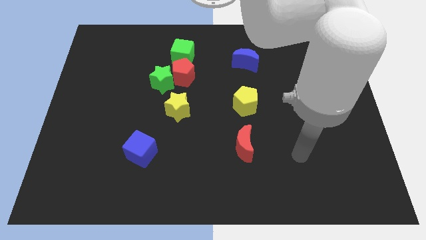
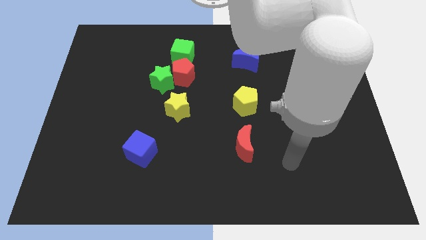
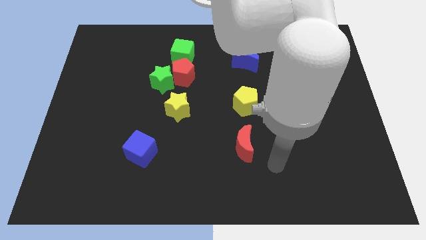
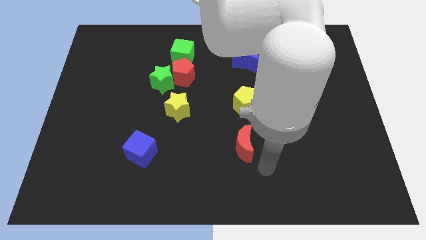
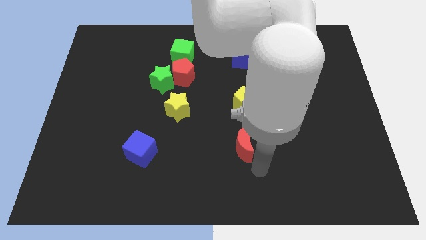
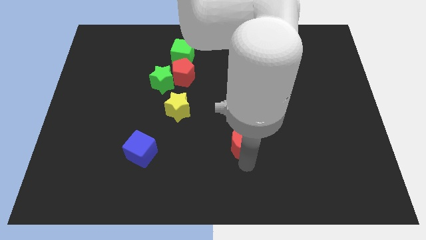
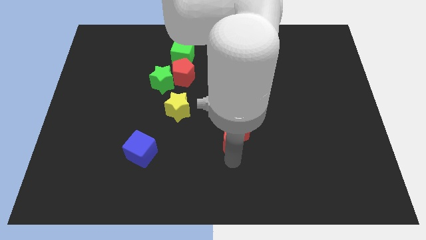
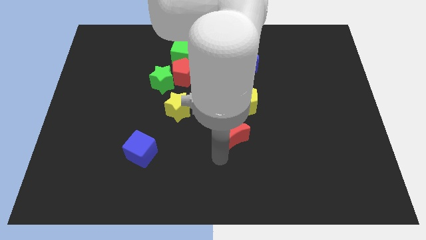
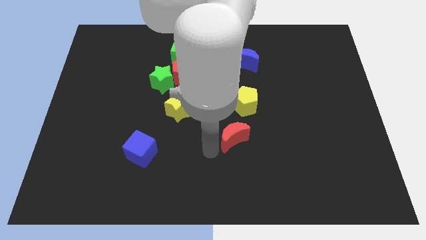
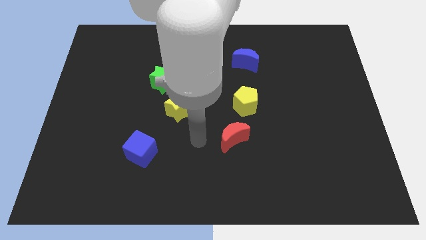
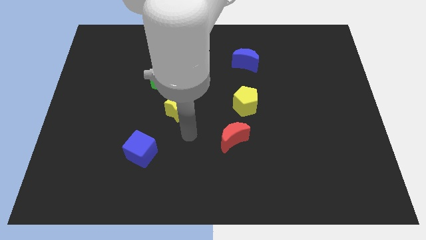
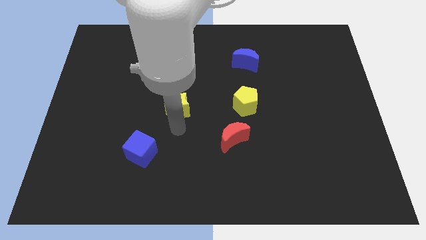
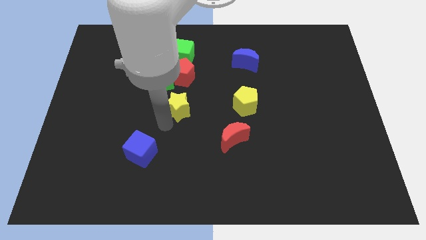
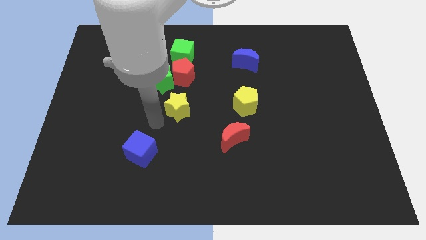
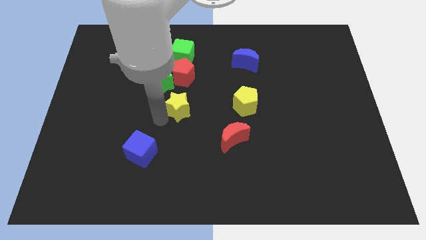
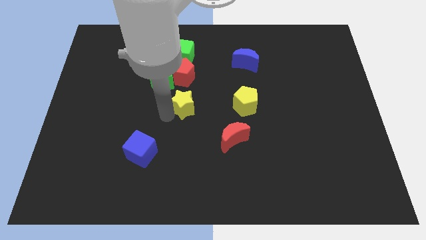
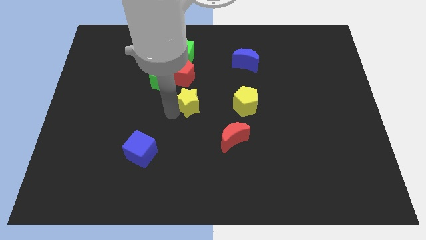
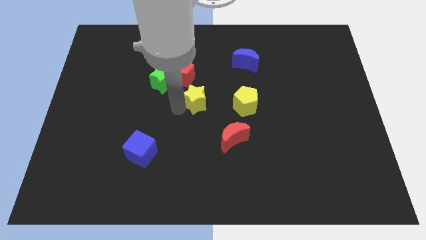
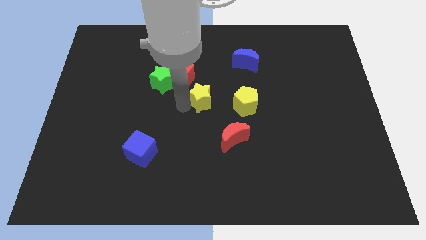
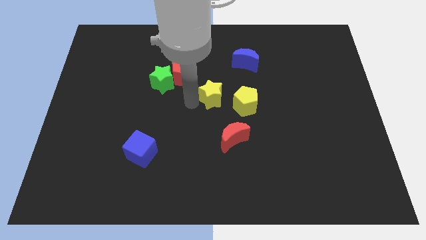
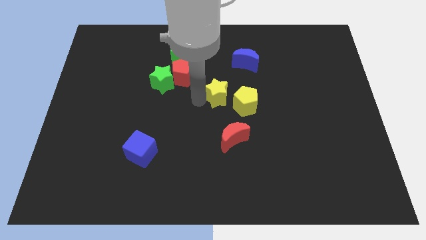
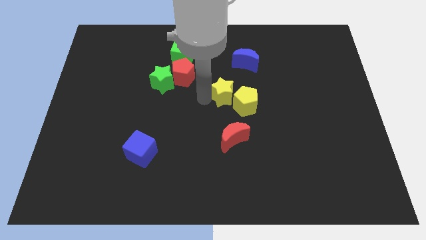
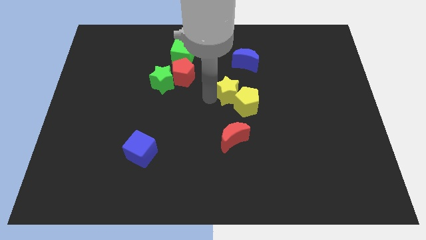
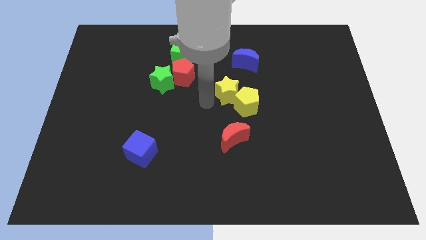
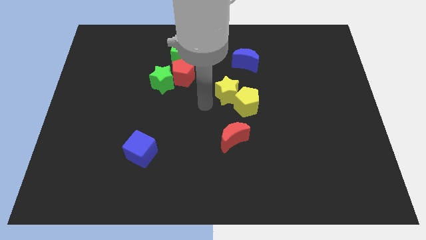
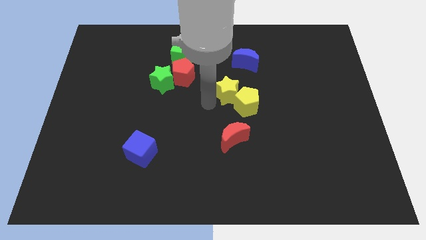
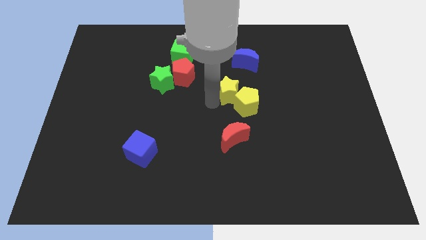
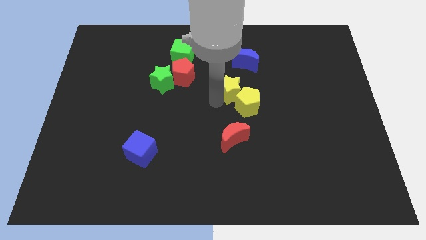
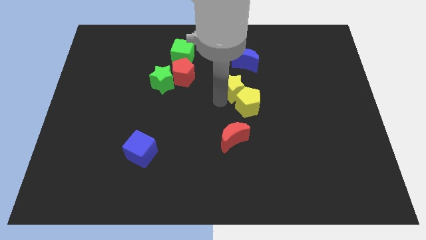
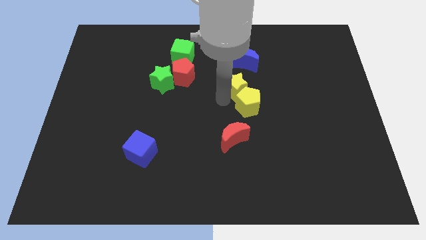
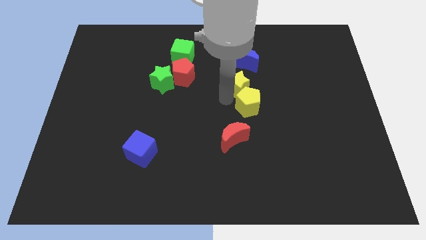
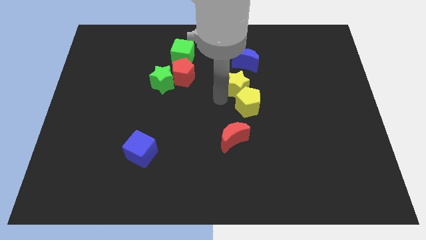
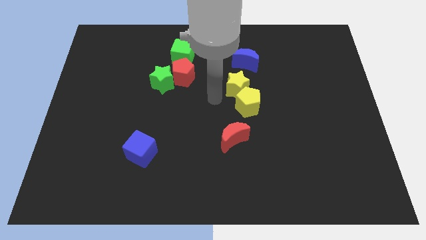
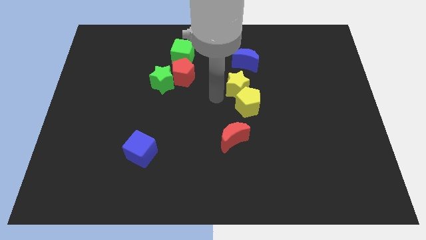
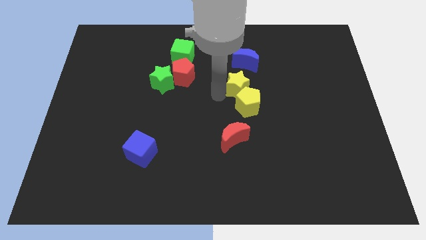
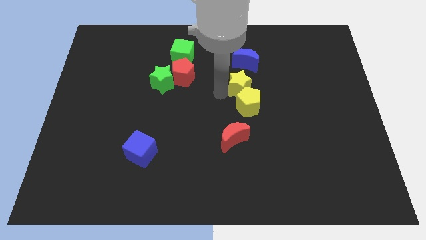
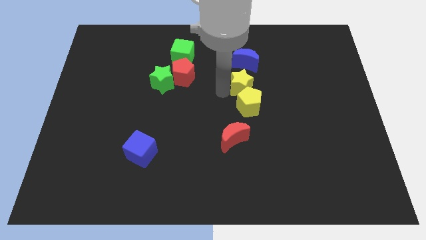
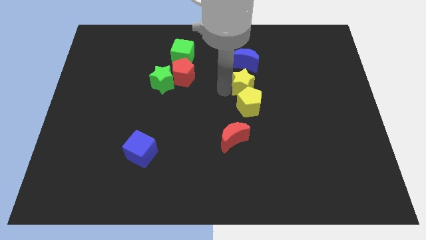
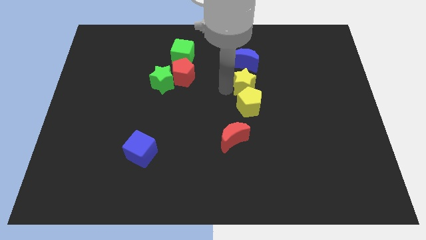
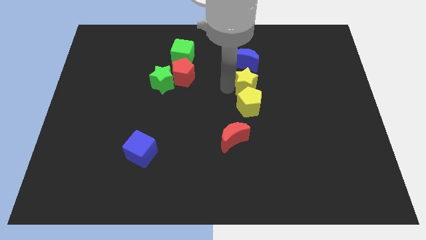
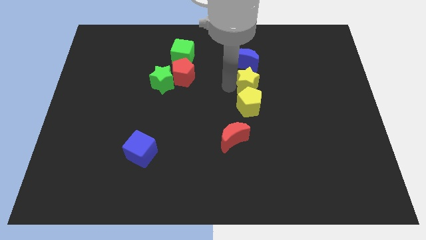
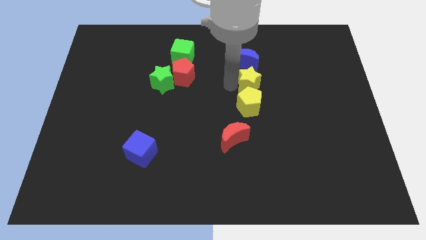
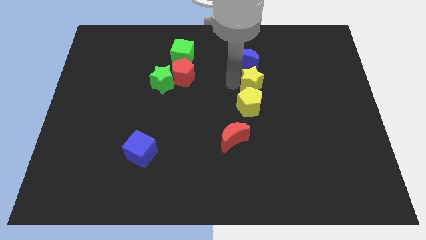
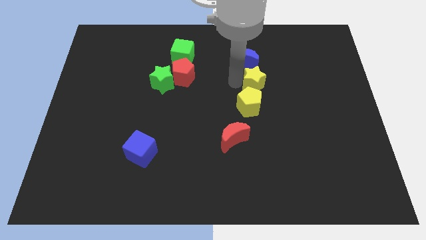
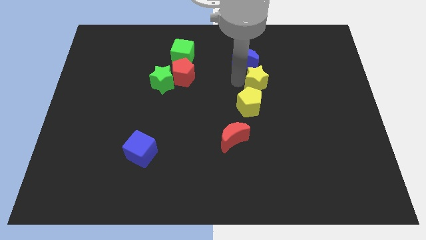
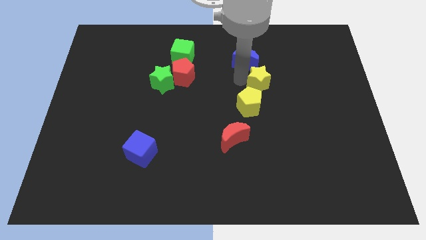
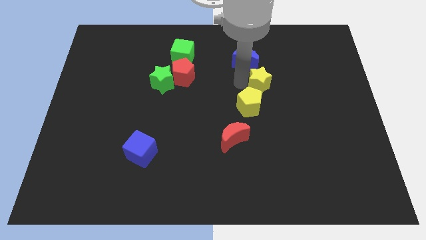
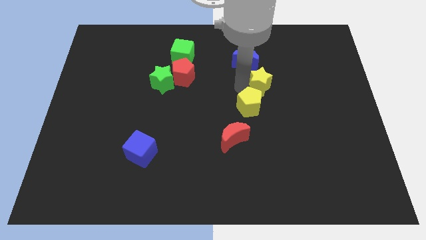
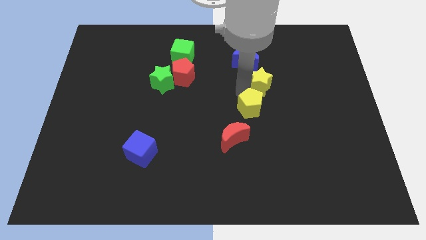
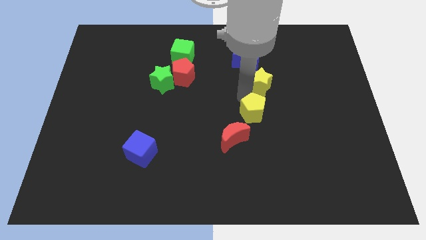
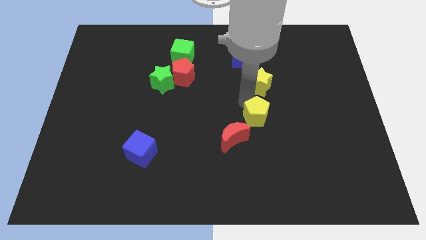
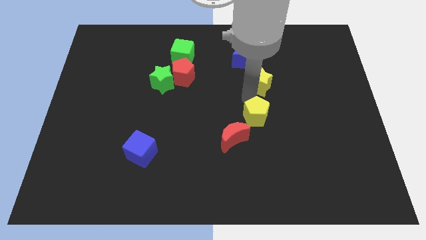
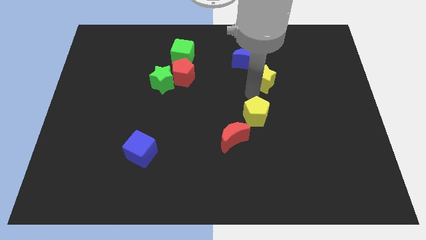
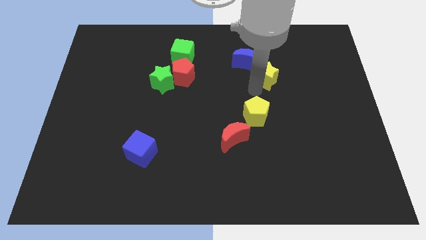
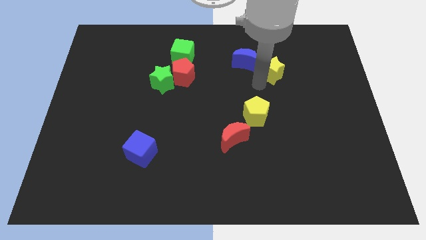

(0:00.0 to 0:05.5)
move the yellow star to the right of the blue moon

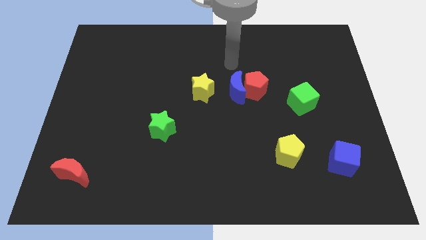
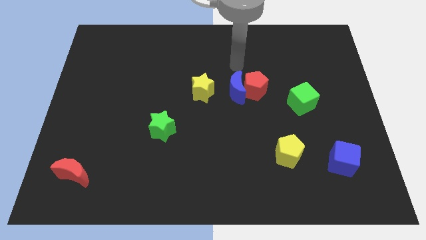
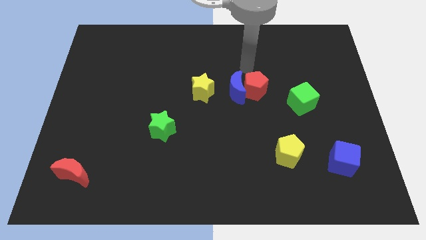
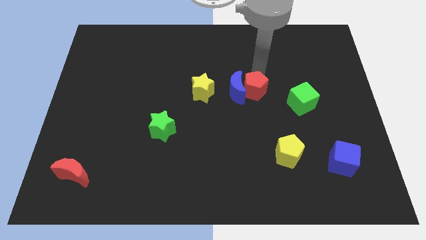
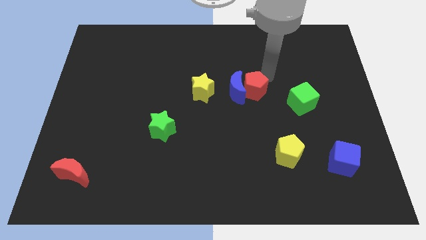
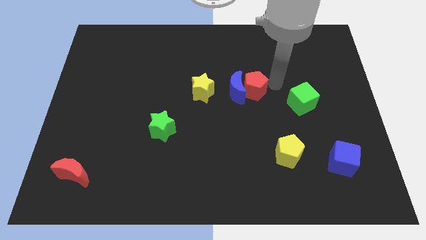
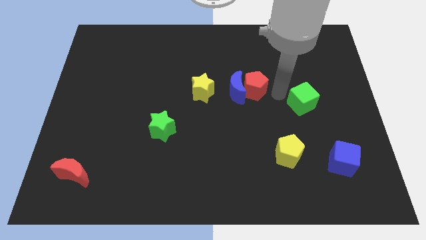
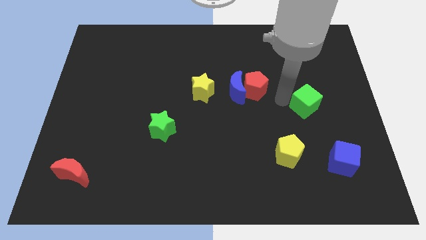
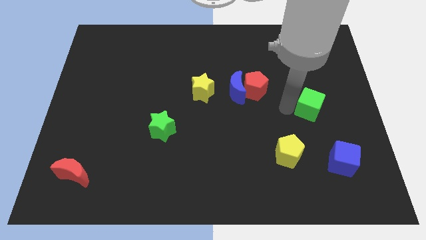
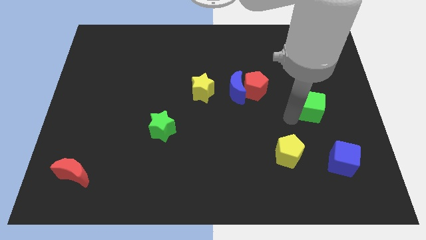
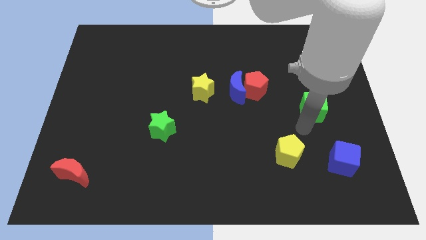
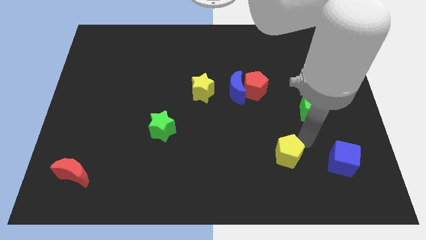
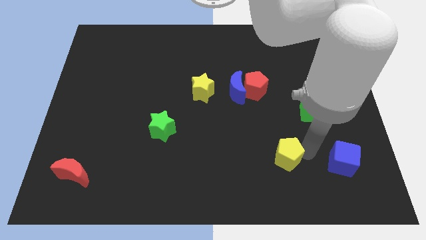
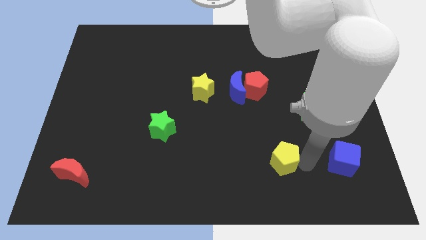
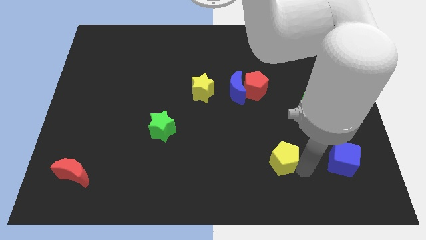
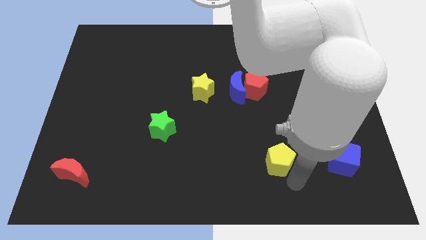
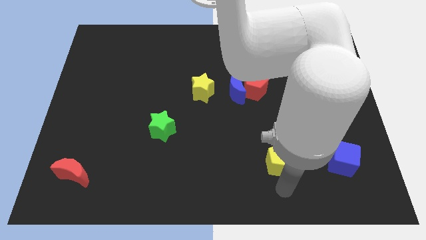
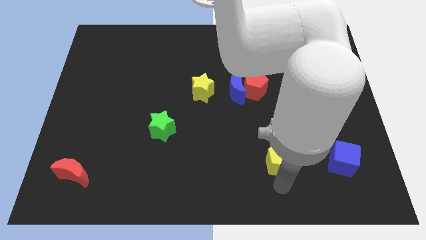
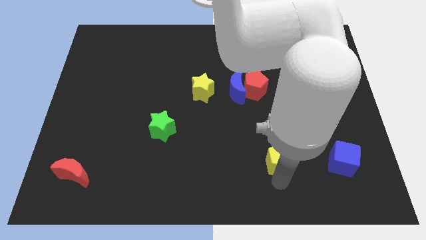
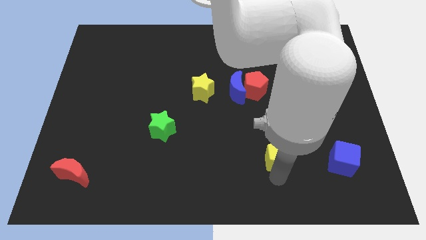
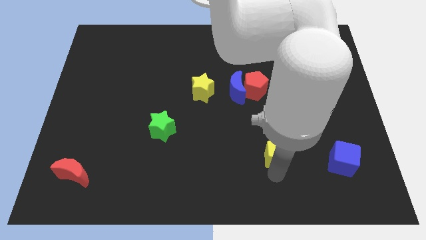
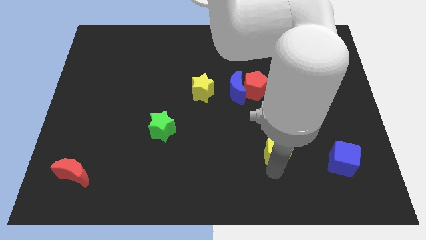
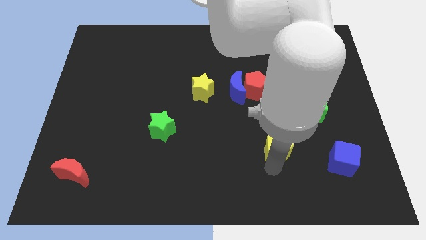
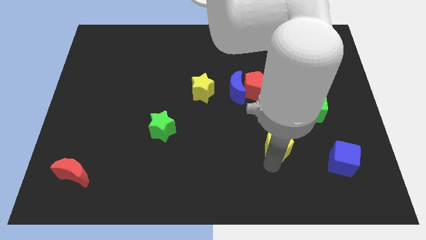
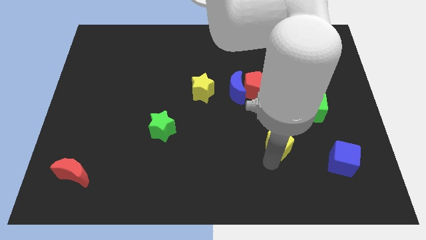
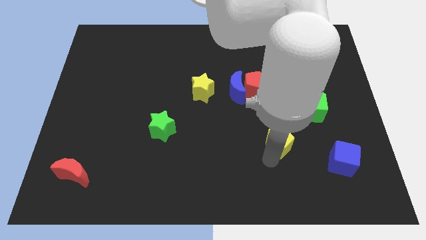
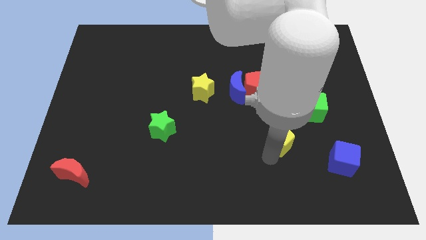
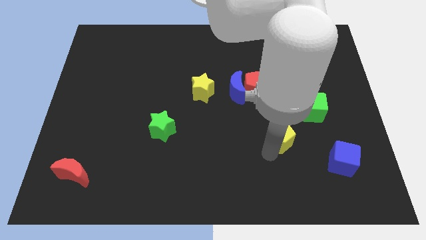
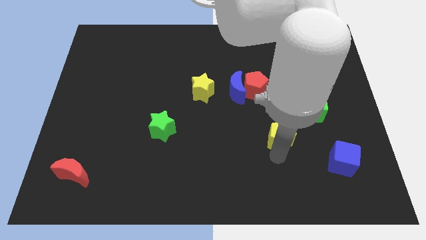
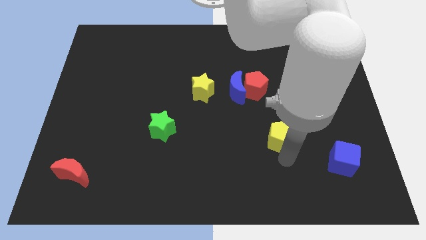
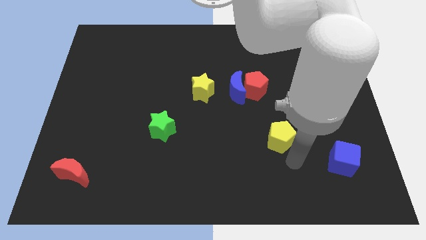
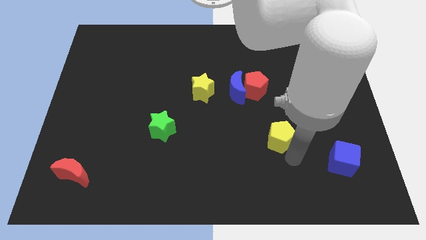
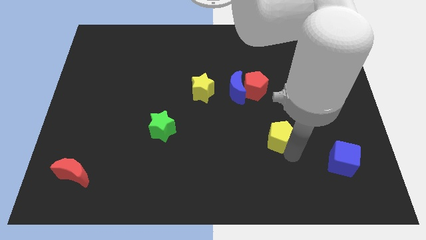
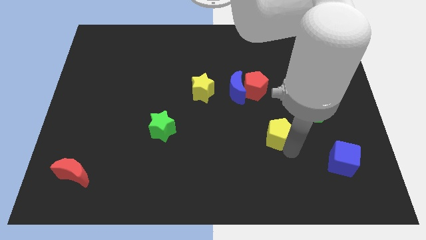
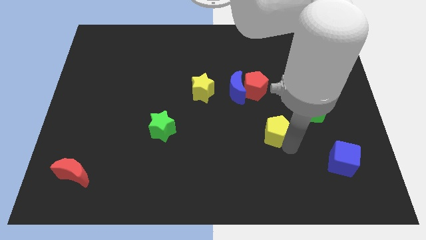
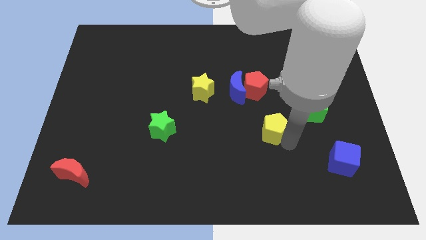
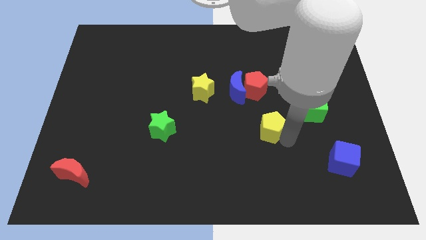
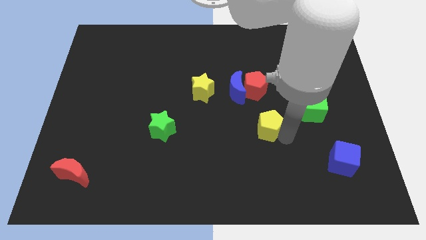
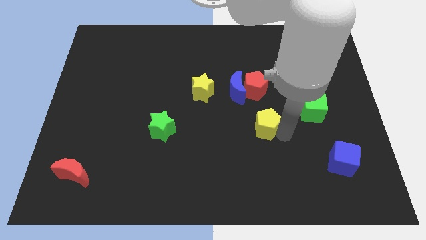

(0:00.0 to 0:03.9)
slide the yellow pentagon to the bottom right side of the blue moon
